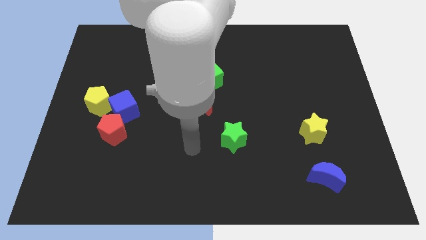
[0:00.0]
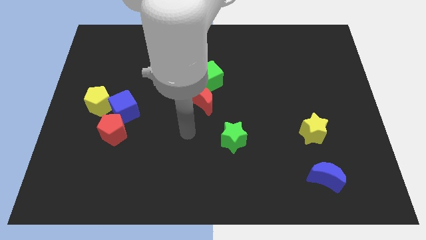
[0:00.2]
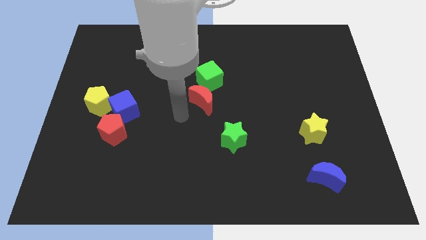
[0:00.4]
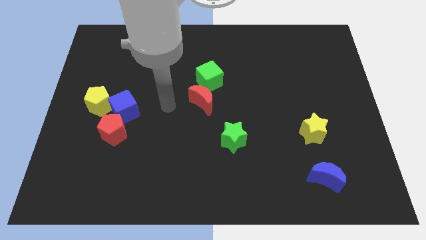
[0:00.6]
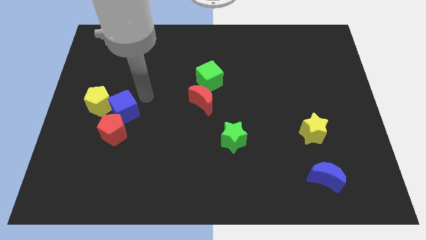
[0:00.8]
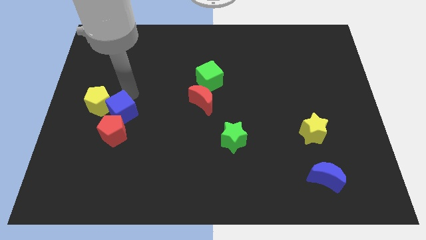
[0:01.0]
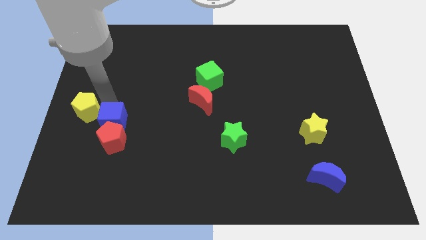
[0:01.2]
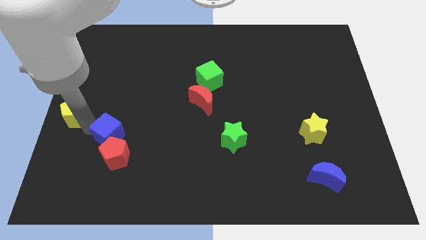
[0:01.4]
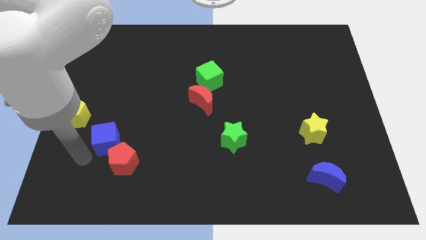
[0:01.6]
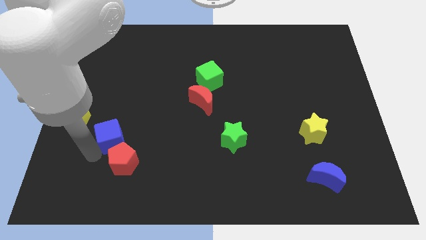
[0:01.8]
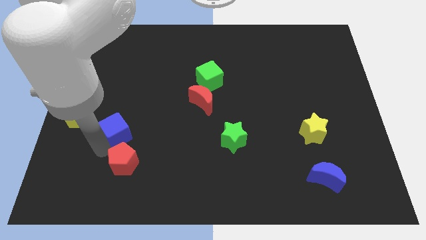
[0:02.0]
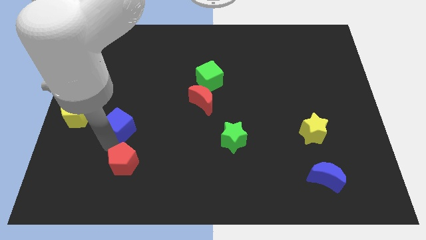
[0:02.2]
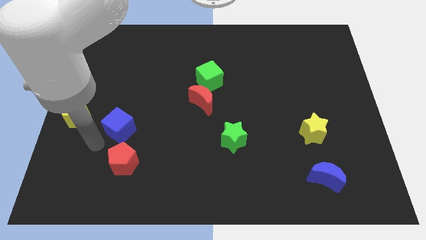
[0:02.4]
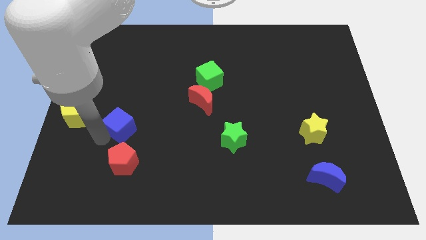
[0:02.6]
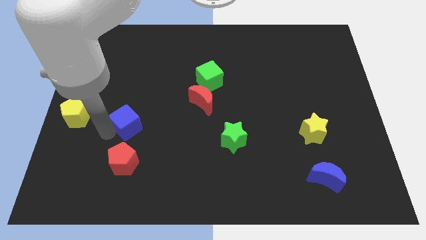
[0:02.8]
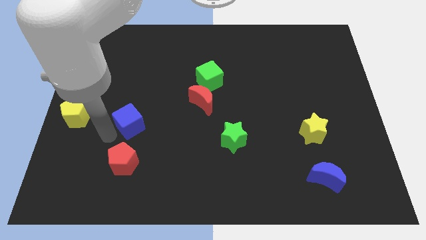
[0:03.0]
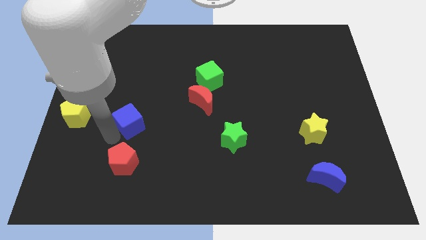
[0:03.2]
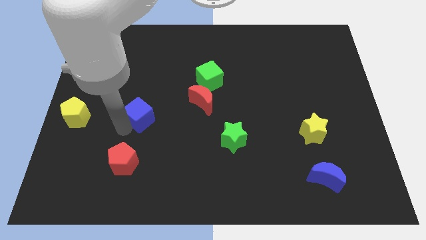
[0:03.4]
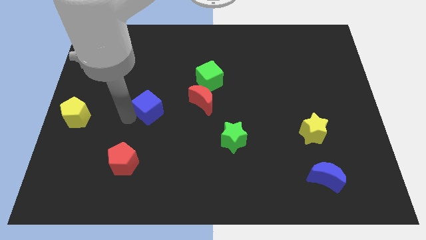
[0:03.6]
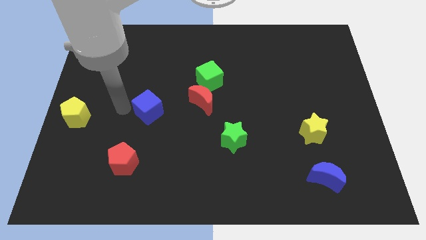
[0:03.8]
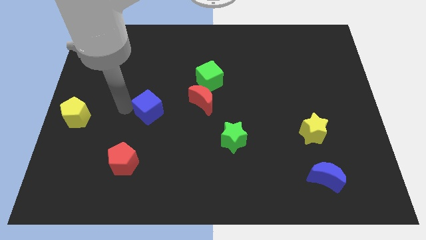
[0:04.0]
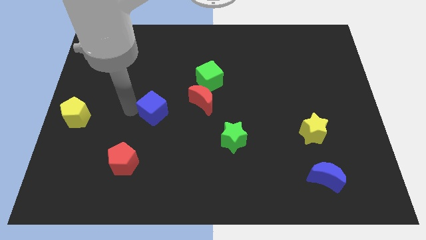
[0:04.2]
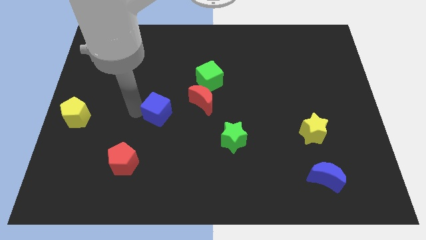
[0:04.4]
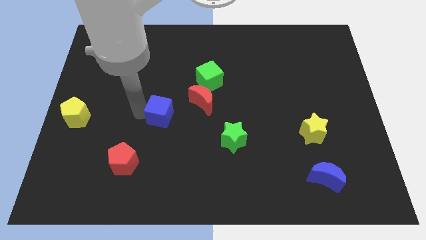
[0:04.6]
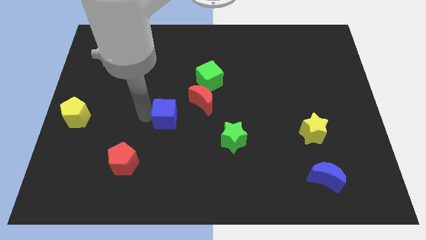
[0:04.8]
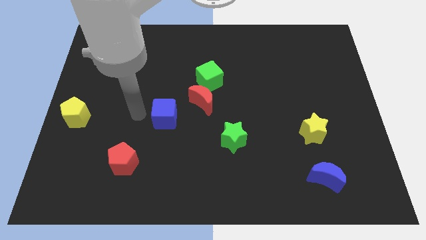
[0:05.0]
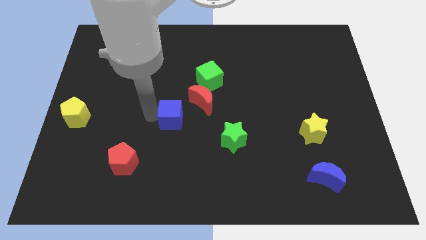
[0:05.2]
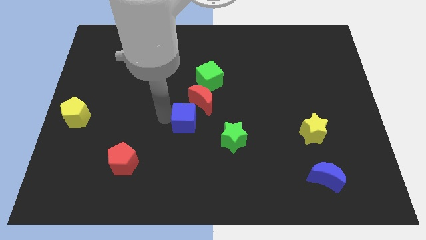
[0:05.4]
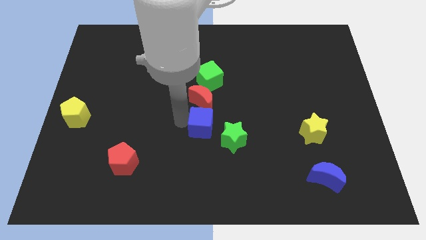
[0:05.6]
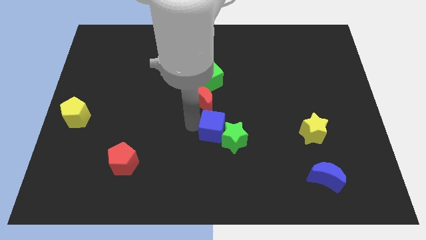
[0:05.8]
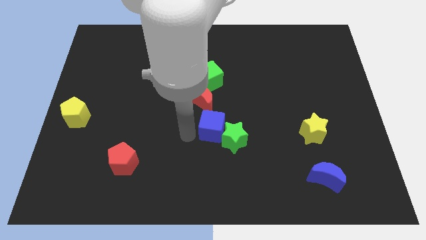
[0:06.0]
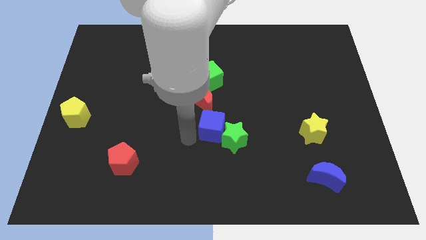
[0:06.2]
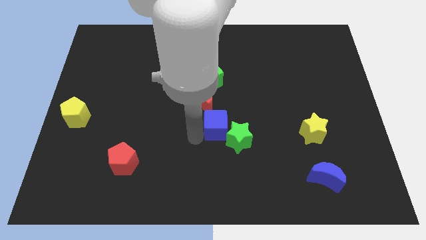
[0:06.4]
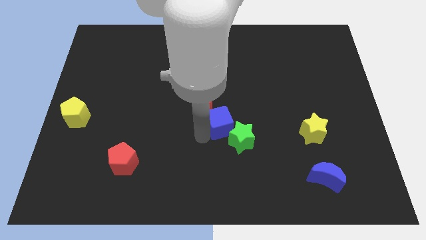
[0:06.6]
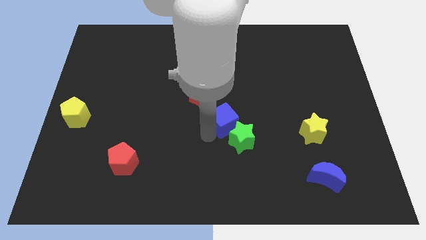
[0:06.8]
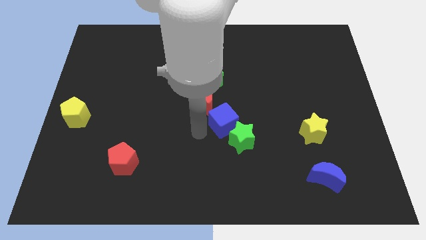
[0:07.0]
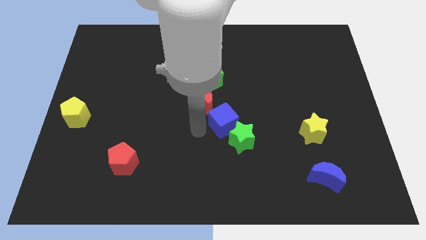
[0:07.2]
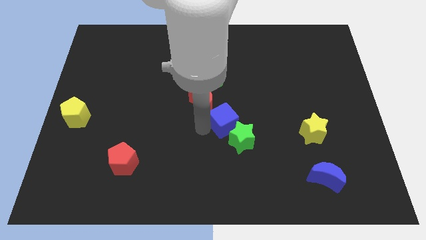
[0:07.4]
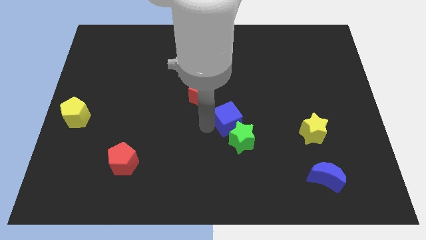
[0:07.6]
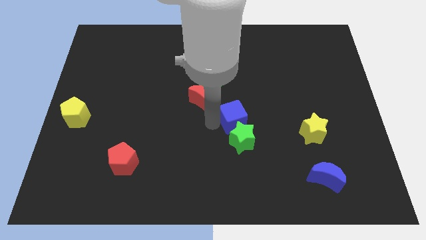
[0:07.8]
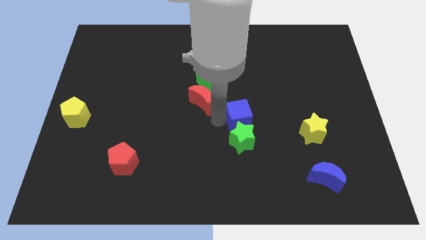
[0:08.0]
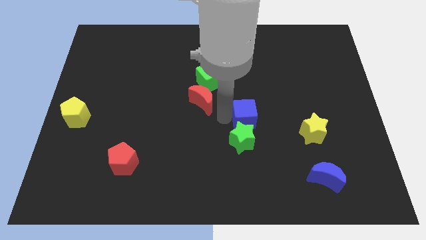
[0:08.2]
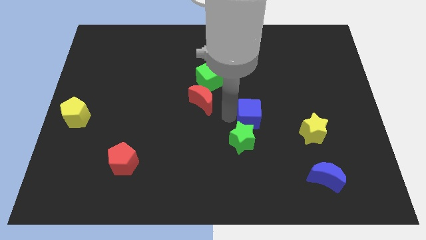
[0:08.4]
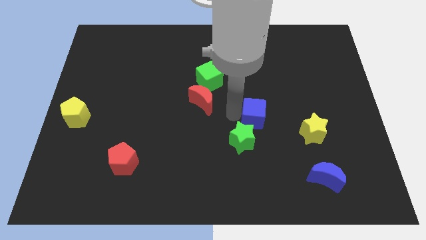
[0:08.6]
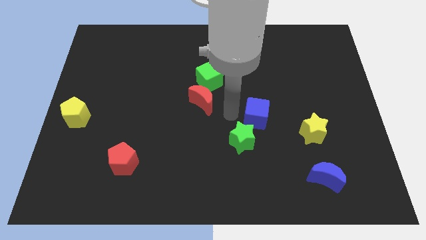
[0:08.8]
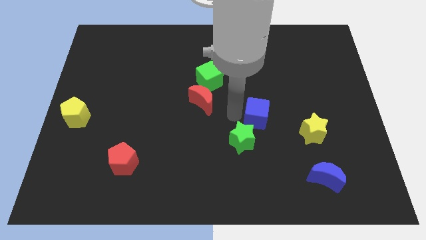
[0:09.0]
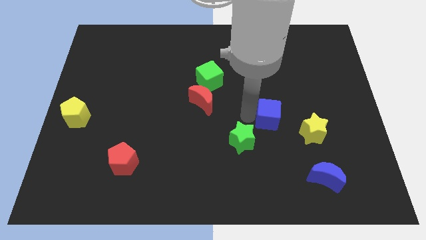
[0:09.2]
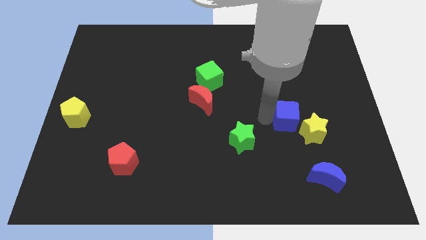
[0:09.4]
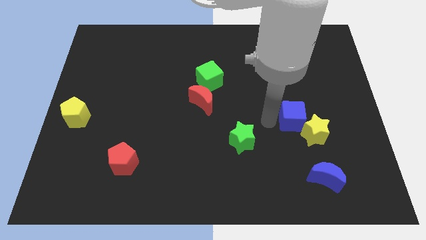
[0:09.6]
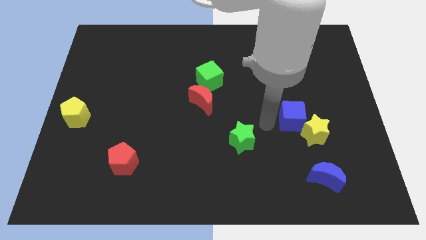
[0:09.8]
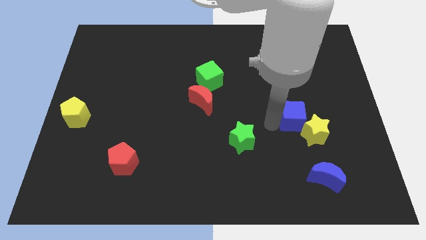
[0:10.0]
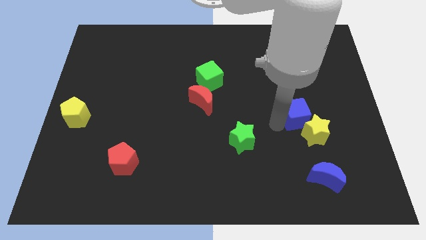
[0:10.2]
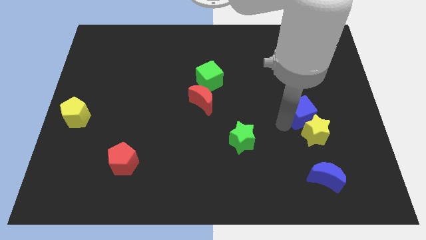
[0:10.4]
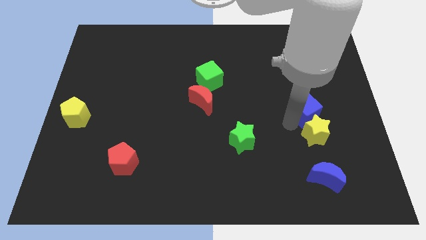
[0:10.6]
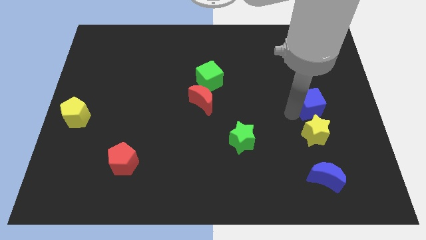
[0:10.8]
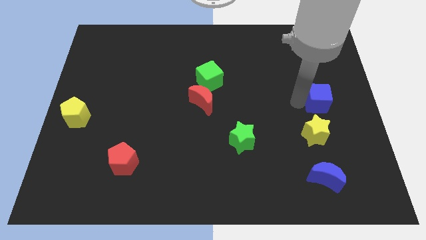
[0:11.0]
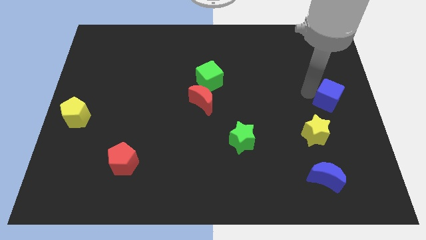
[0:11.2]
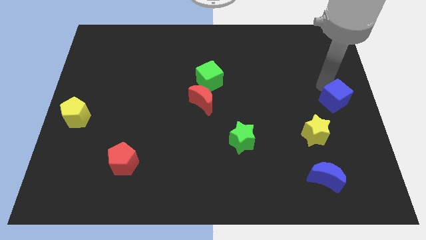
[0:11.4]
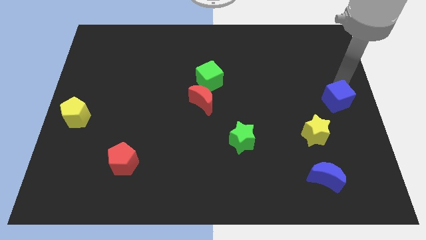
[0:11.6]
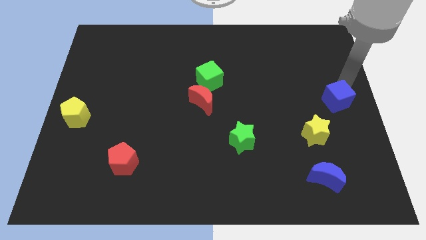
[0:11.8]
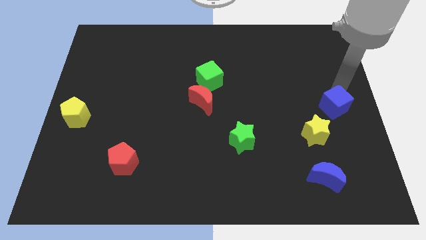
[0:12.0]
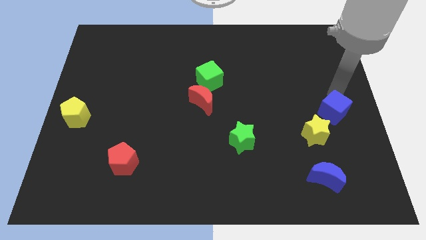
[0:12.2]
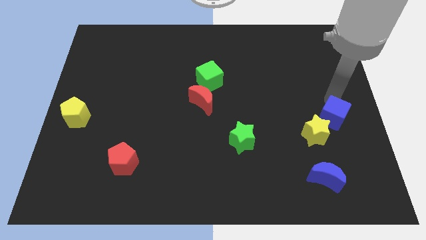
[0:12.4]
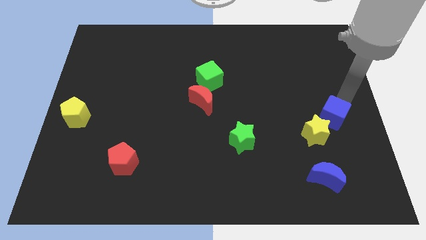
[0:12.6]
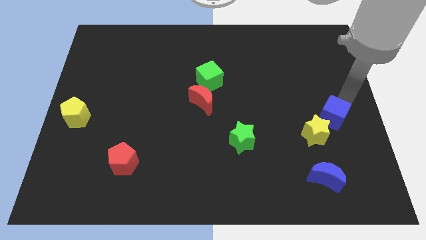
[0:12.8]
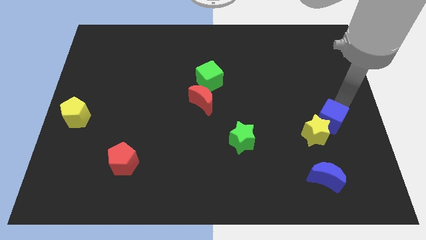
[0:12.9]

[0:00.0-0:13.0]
push the blue cube above the blue moon
